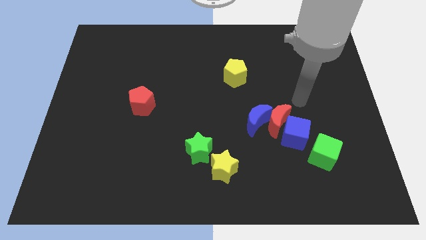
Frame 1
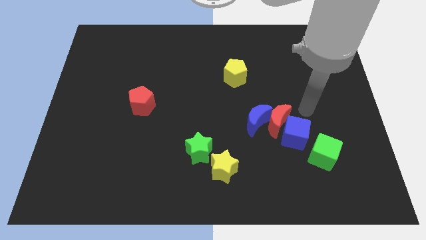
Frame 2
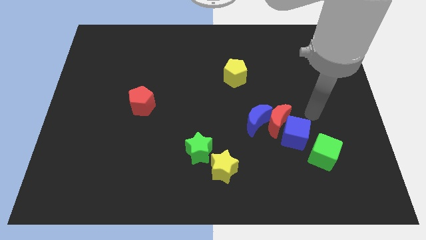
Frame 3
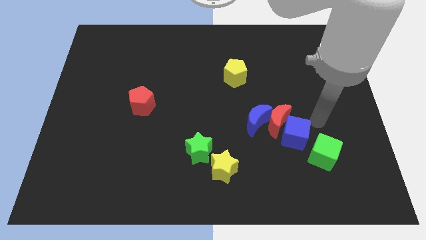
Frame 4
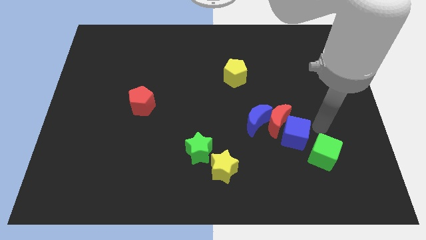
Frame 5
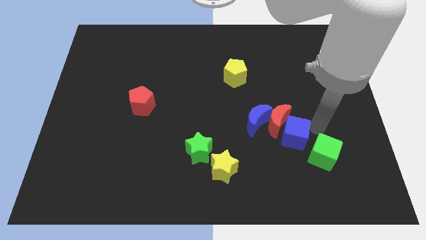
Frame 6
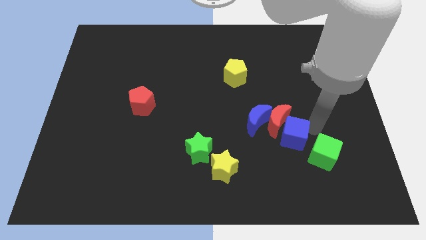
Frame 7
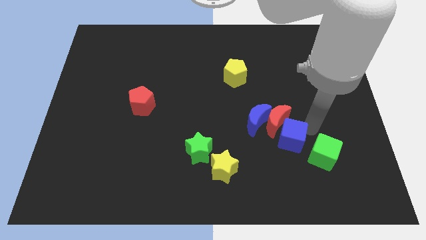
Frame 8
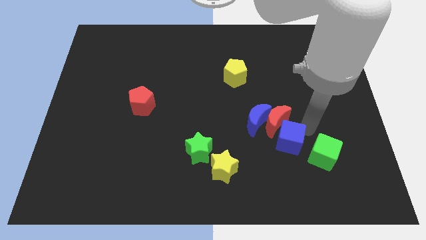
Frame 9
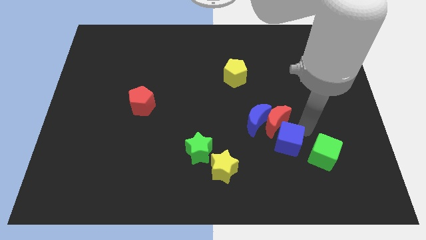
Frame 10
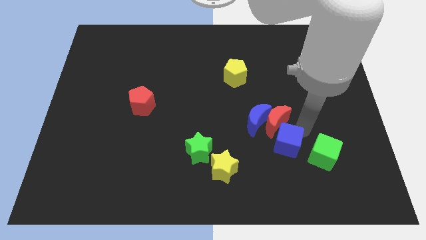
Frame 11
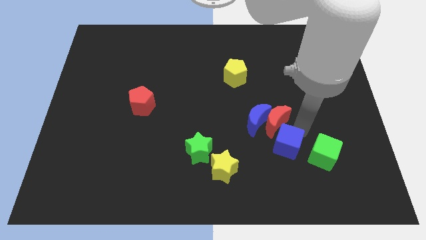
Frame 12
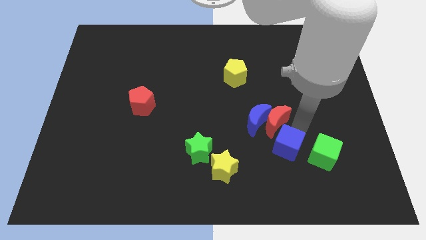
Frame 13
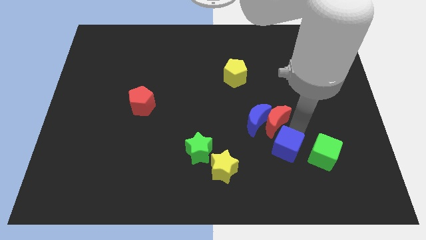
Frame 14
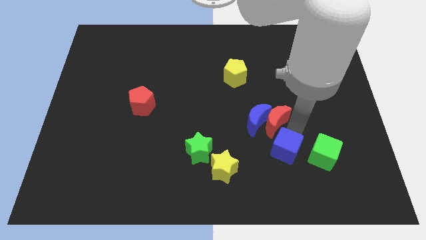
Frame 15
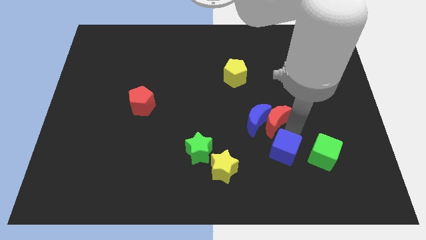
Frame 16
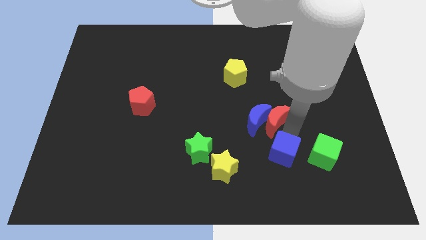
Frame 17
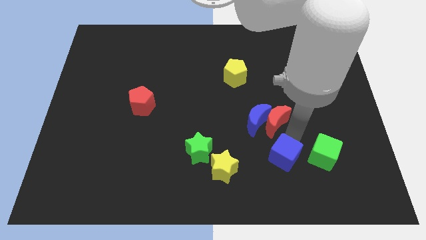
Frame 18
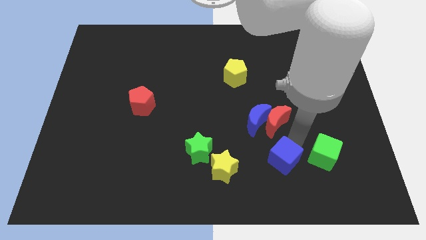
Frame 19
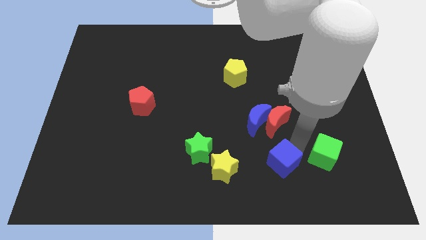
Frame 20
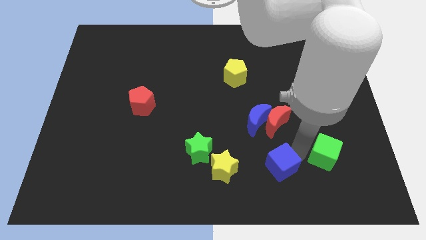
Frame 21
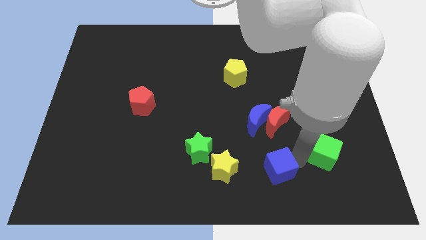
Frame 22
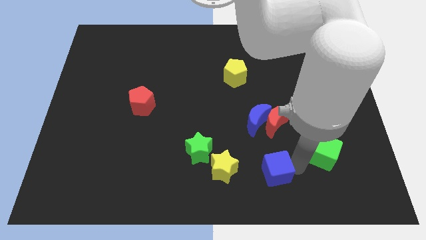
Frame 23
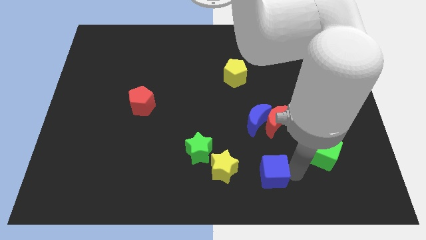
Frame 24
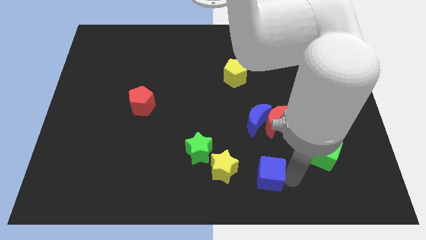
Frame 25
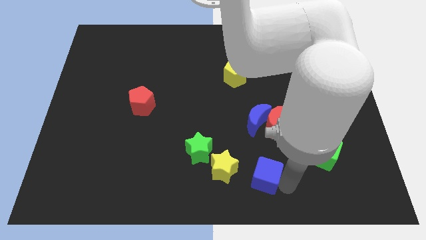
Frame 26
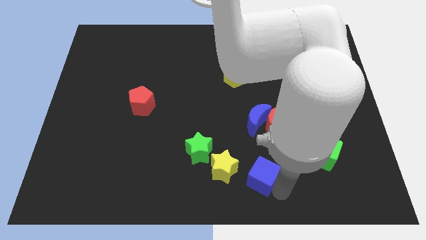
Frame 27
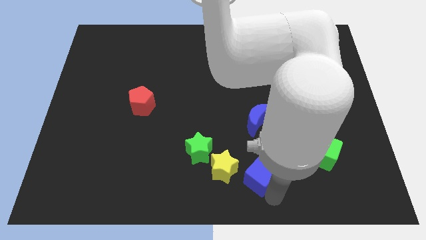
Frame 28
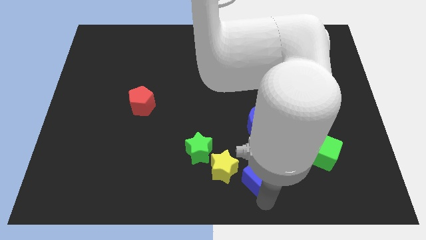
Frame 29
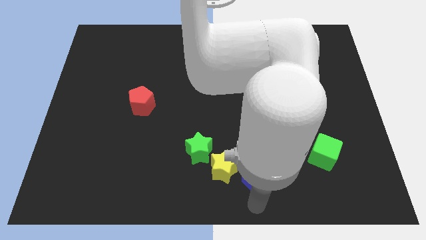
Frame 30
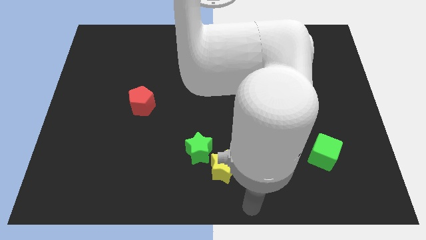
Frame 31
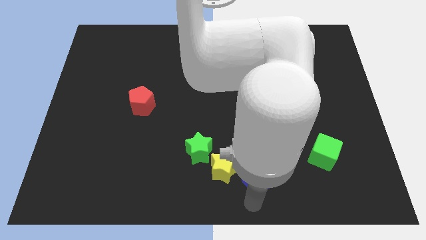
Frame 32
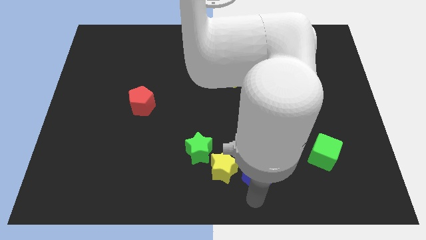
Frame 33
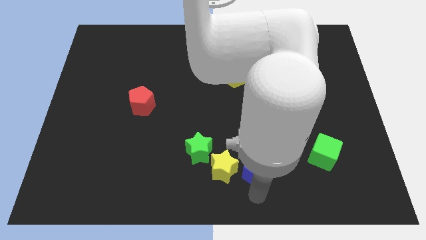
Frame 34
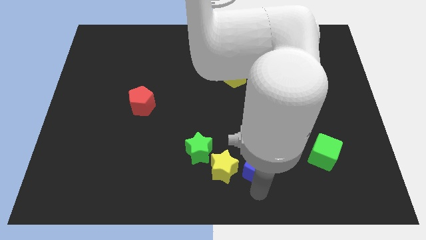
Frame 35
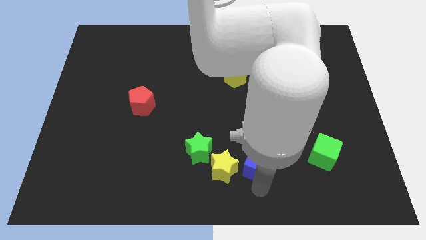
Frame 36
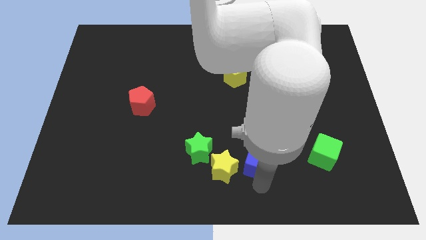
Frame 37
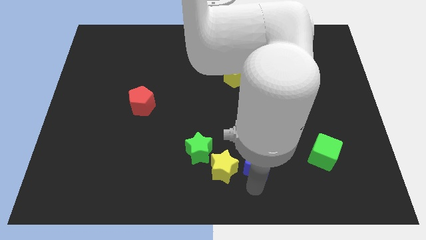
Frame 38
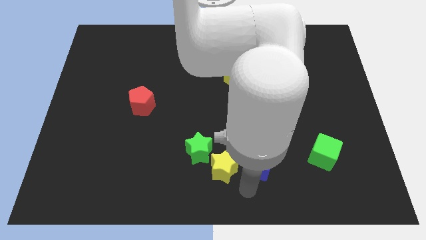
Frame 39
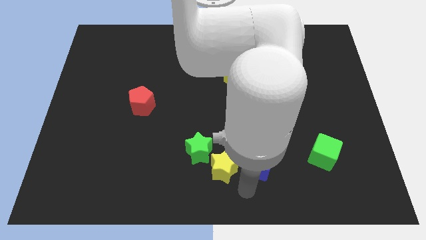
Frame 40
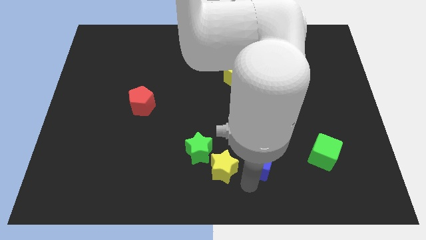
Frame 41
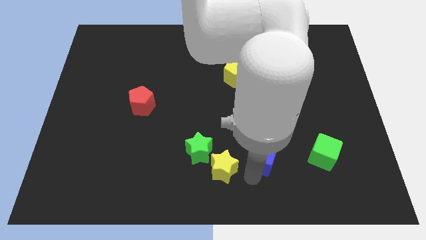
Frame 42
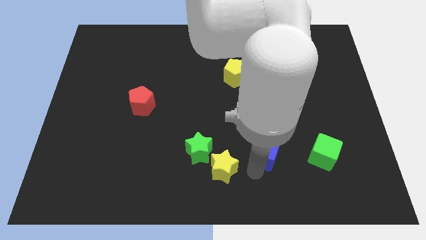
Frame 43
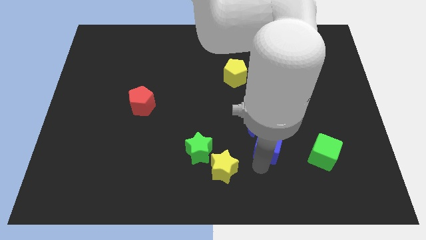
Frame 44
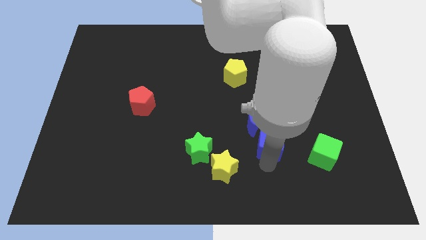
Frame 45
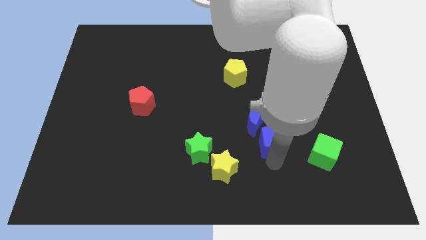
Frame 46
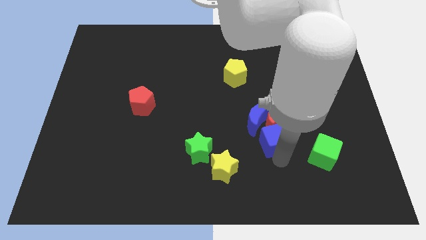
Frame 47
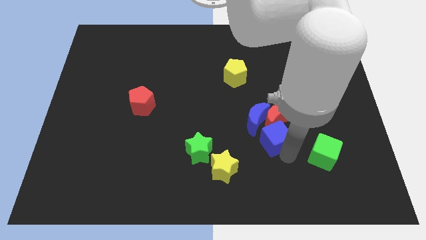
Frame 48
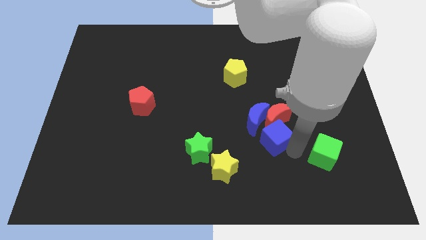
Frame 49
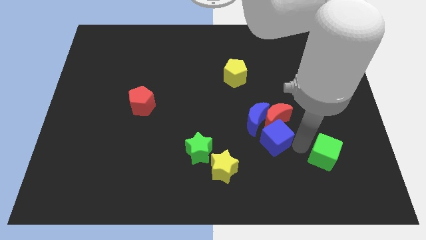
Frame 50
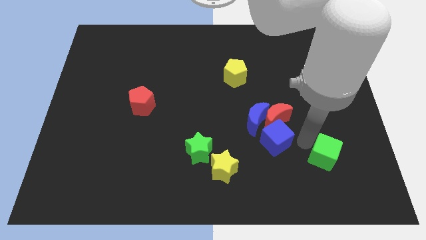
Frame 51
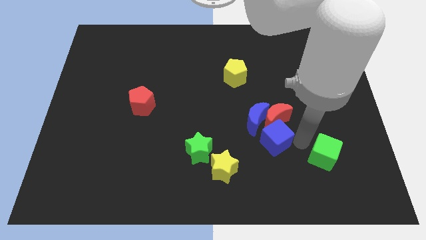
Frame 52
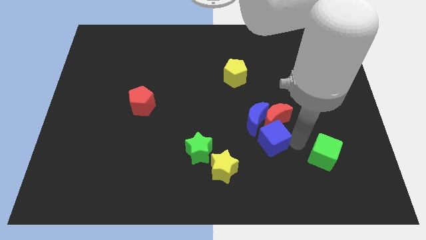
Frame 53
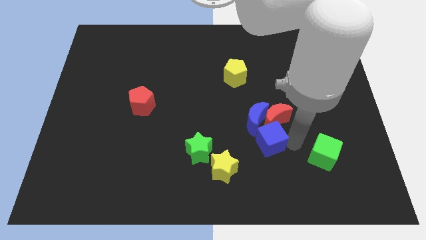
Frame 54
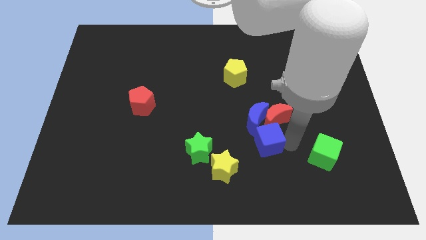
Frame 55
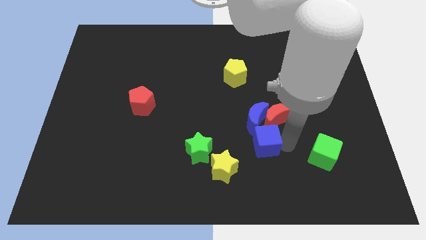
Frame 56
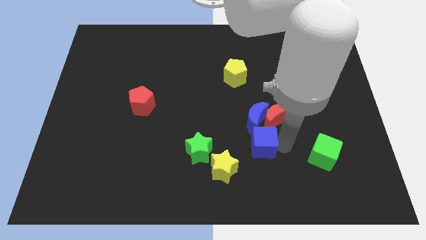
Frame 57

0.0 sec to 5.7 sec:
slightly push the blue cube left

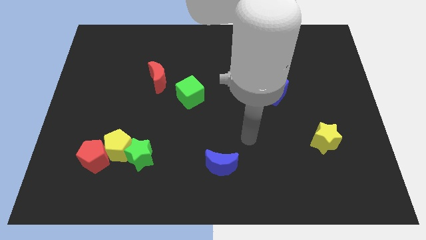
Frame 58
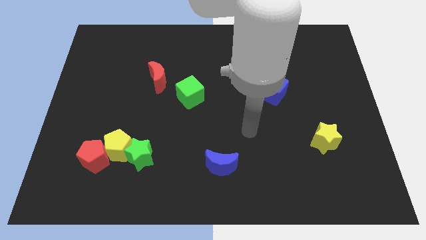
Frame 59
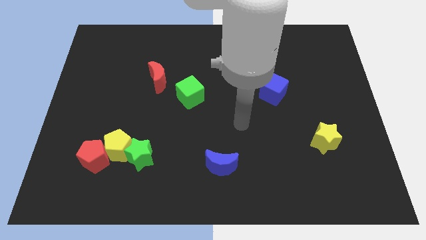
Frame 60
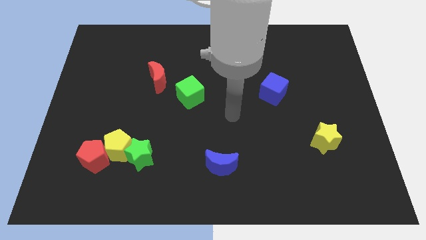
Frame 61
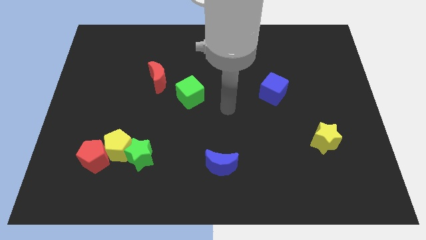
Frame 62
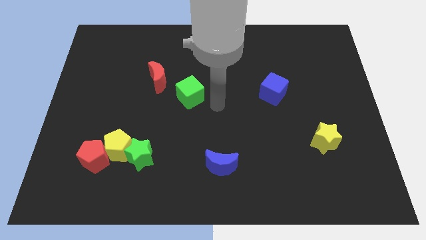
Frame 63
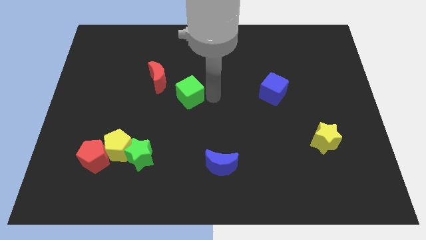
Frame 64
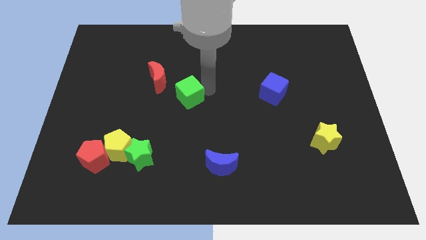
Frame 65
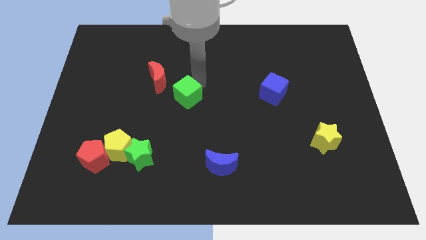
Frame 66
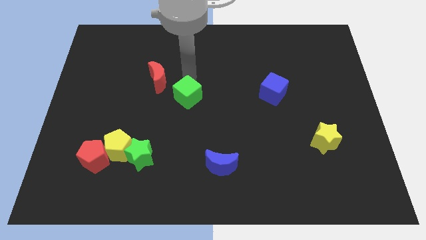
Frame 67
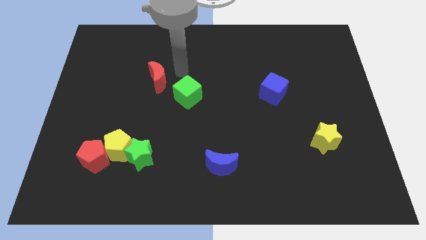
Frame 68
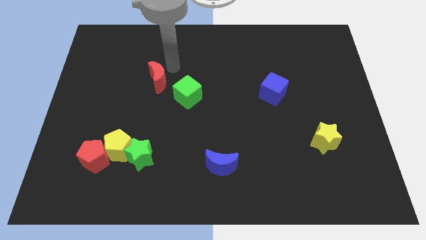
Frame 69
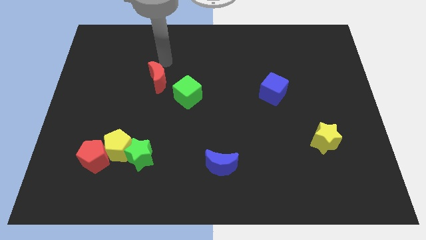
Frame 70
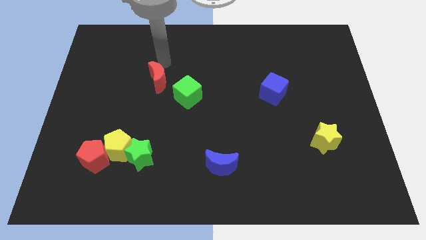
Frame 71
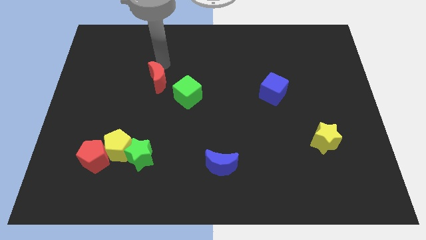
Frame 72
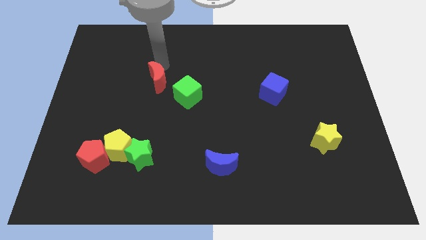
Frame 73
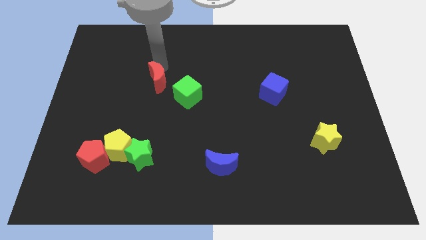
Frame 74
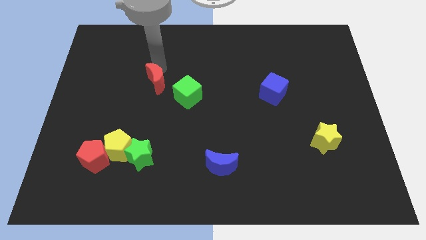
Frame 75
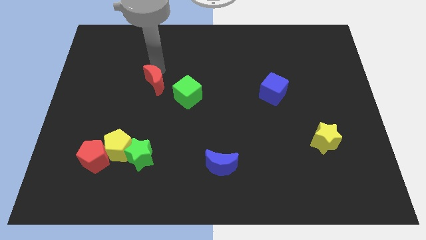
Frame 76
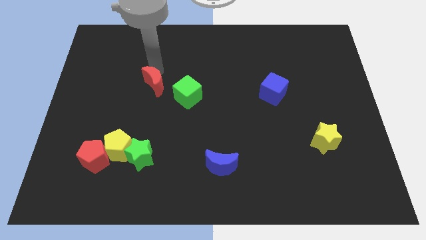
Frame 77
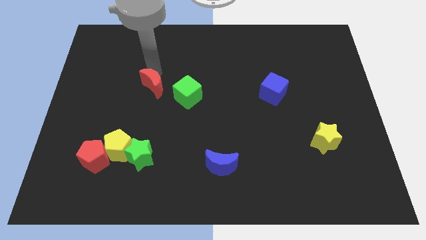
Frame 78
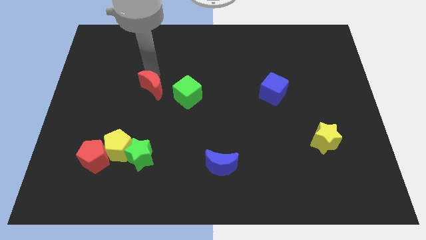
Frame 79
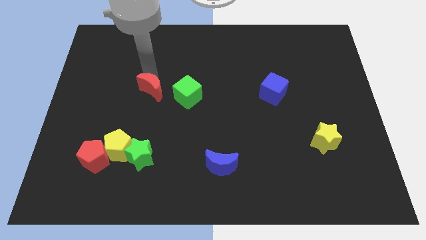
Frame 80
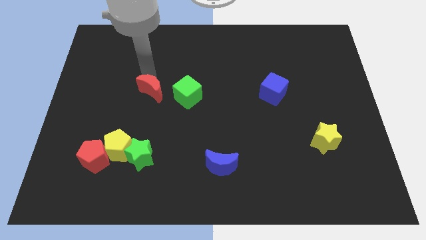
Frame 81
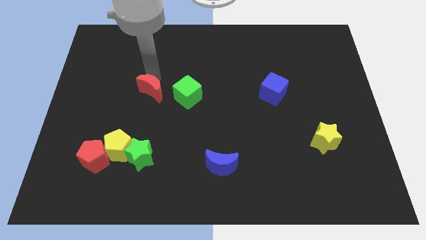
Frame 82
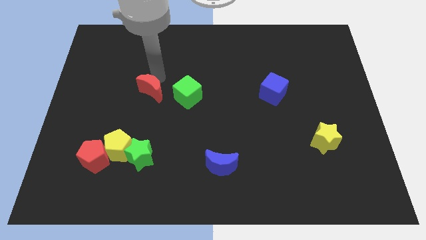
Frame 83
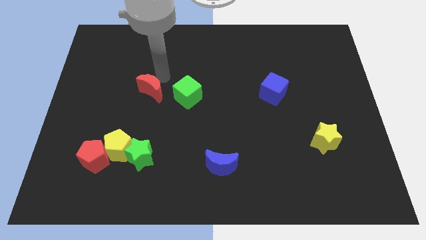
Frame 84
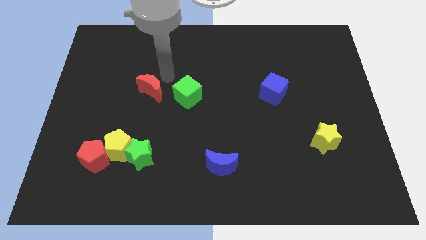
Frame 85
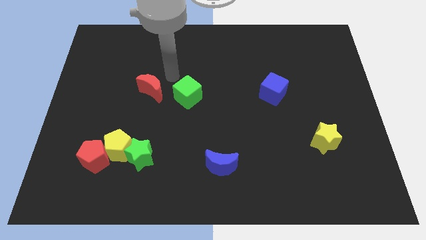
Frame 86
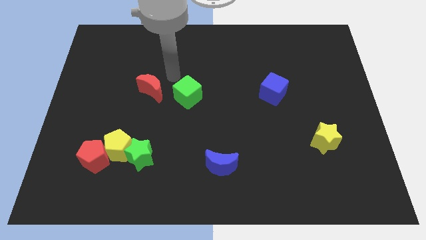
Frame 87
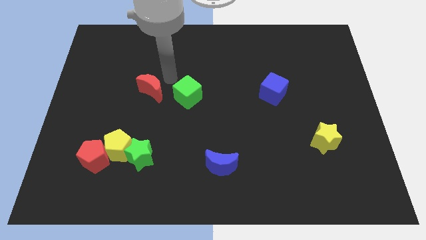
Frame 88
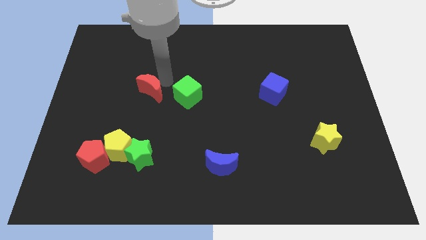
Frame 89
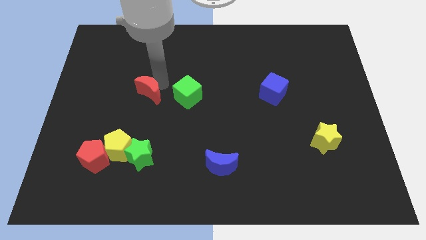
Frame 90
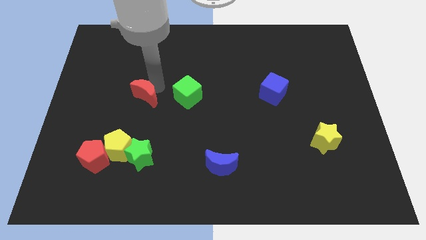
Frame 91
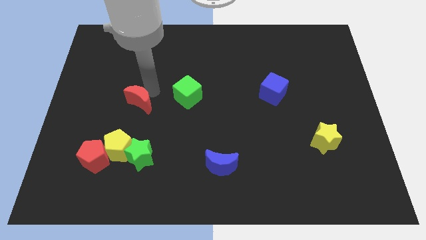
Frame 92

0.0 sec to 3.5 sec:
push the red moon a bit downwards and to the left
